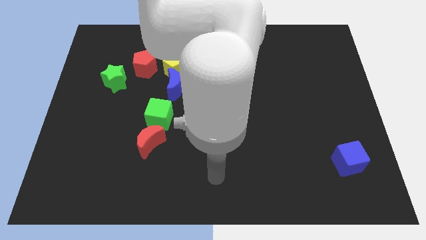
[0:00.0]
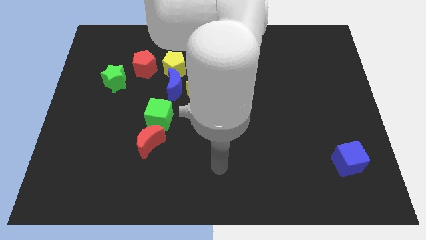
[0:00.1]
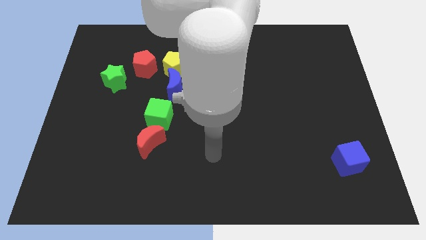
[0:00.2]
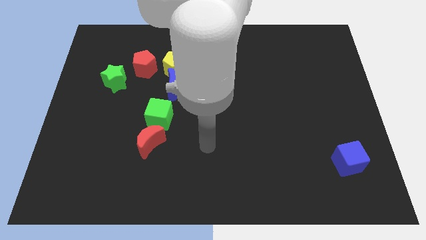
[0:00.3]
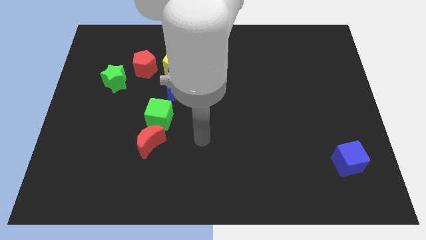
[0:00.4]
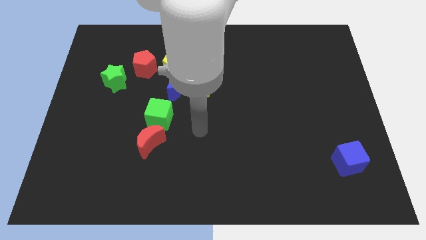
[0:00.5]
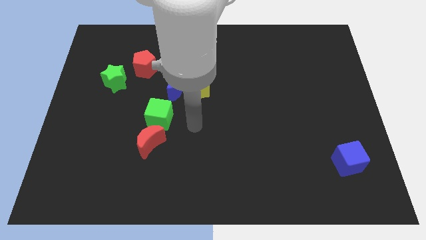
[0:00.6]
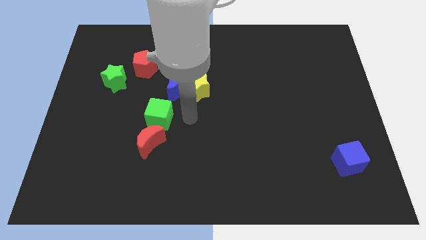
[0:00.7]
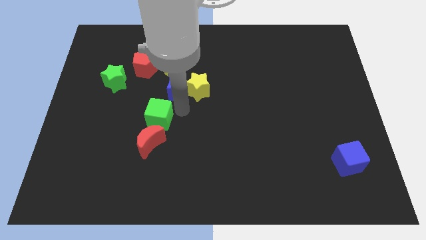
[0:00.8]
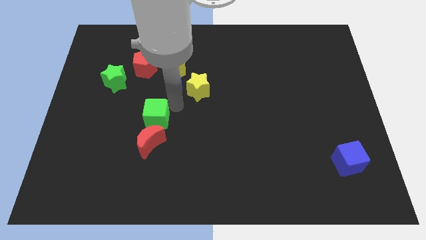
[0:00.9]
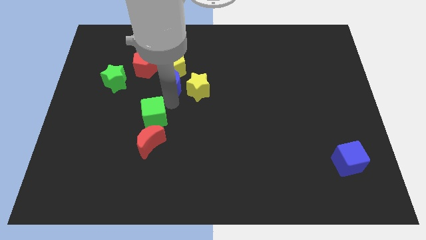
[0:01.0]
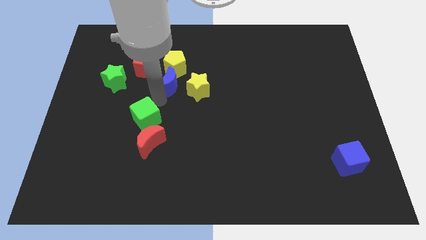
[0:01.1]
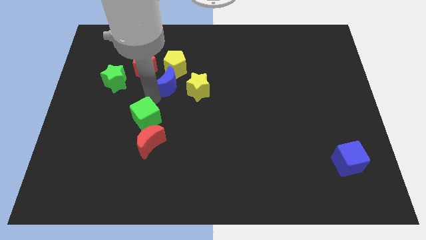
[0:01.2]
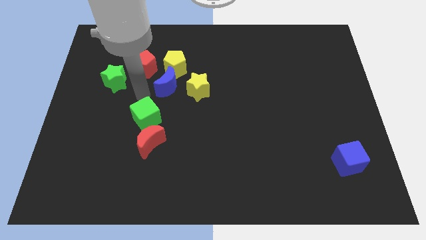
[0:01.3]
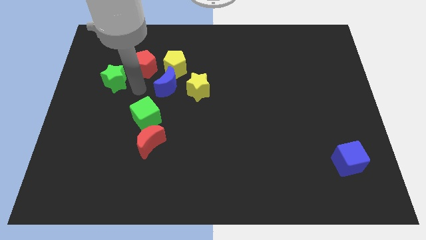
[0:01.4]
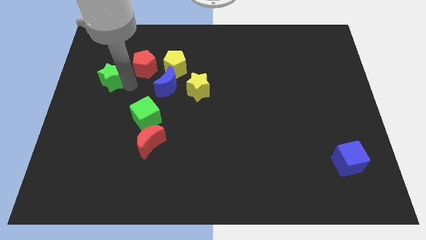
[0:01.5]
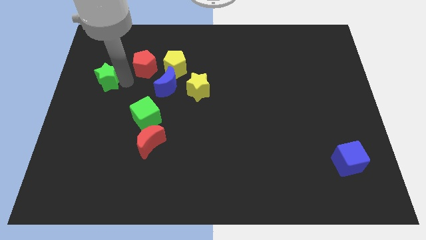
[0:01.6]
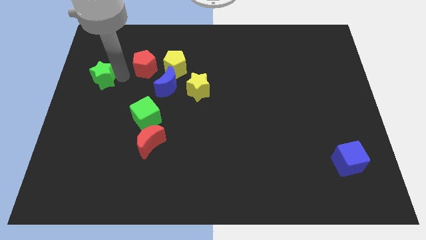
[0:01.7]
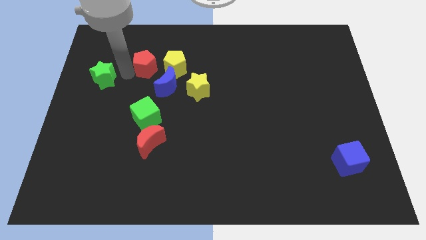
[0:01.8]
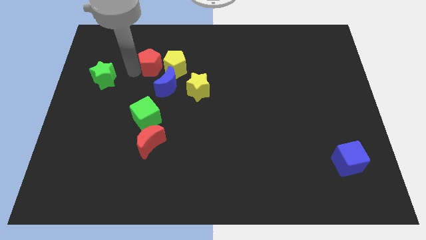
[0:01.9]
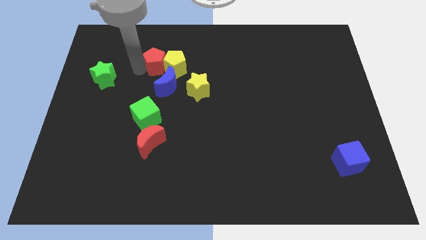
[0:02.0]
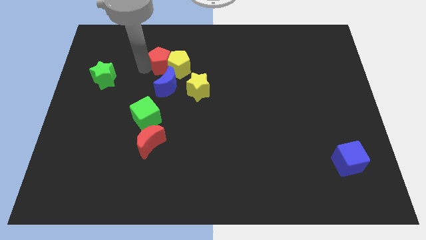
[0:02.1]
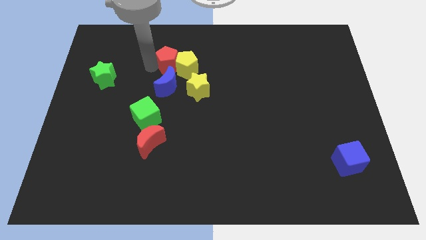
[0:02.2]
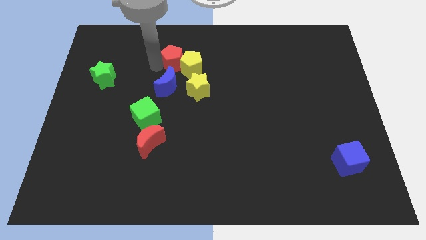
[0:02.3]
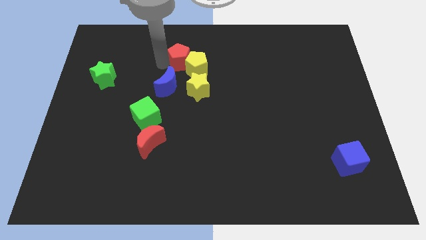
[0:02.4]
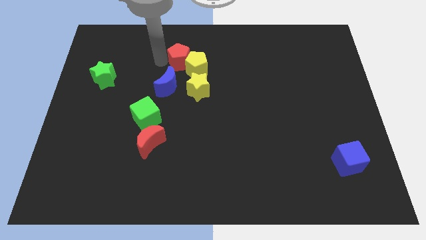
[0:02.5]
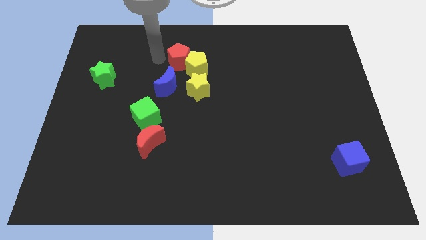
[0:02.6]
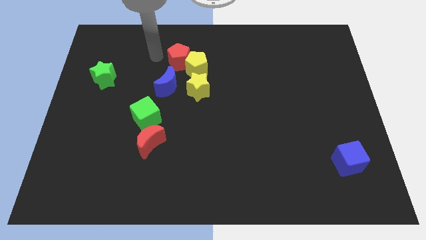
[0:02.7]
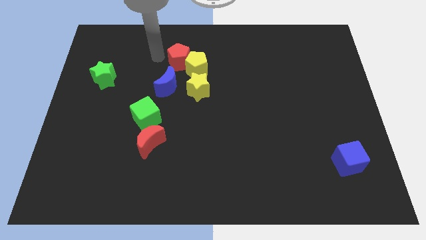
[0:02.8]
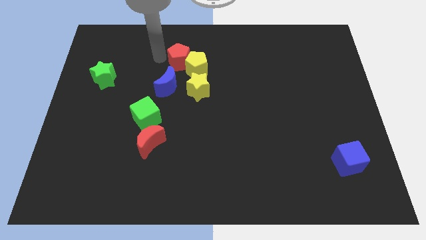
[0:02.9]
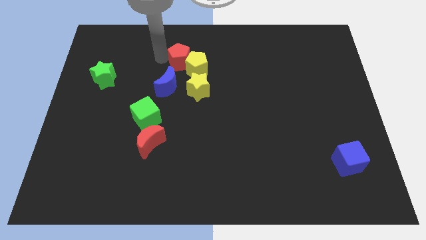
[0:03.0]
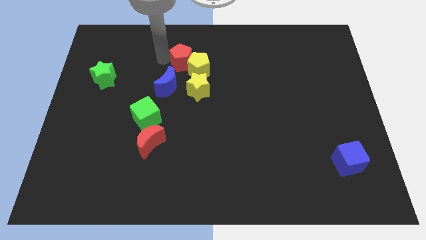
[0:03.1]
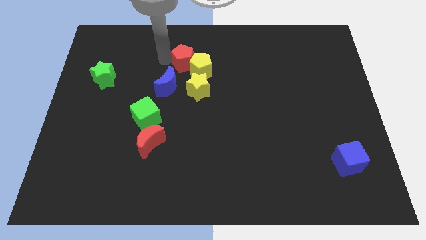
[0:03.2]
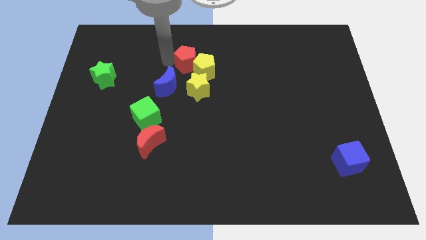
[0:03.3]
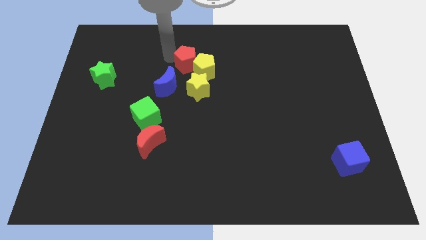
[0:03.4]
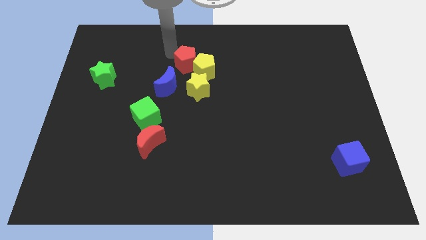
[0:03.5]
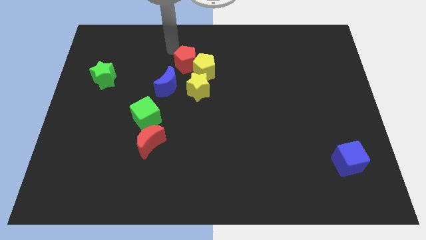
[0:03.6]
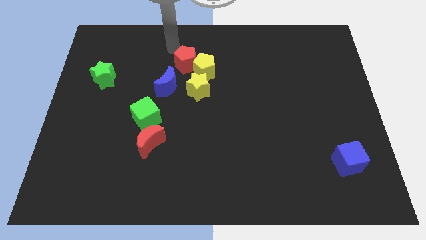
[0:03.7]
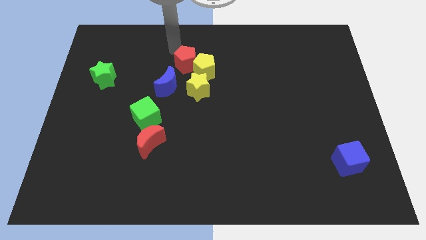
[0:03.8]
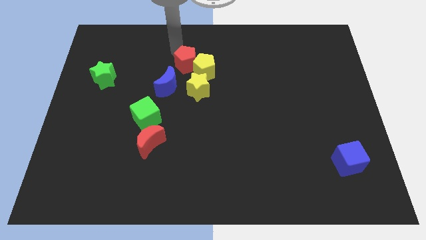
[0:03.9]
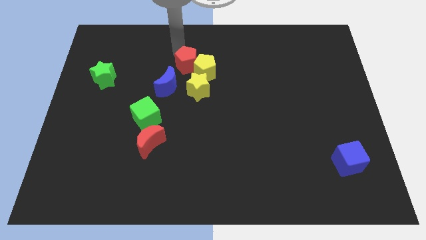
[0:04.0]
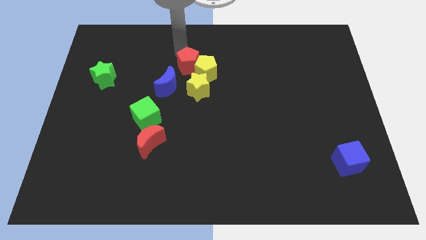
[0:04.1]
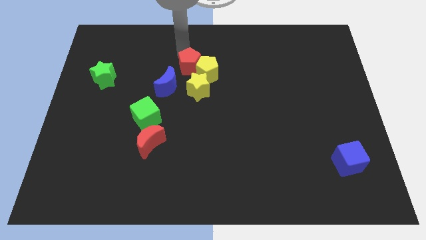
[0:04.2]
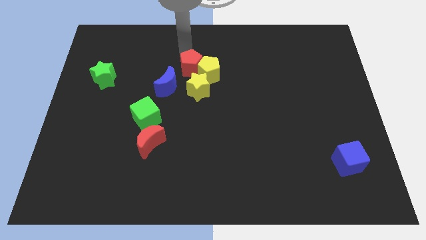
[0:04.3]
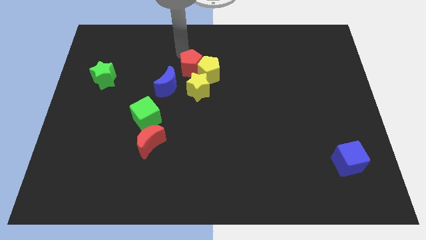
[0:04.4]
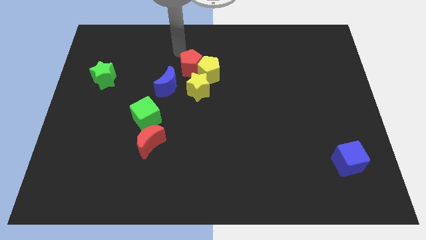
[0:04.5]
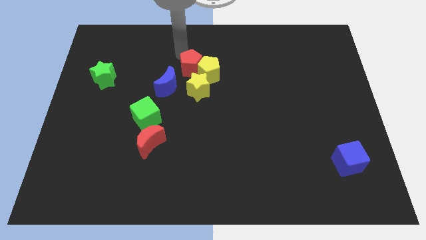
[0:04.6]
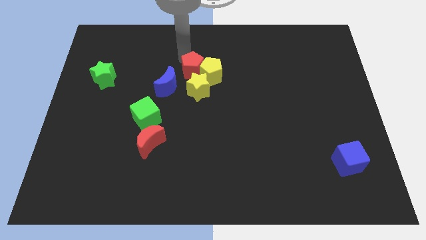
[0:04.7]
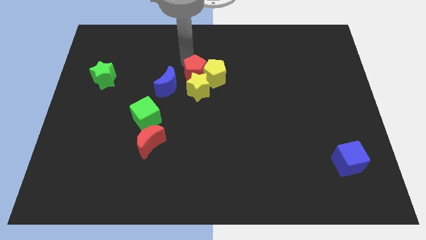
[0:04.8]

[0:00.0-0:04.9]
push the red pentagon close to the yellow star

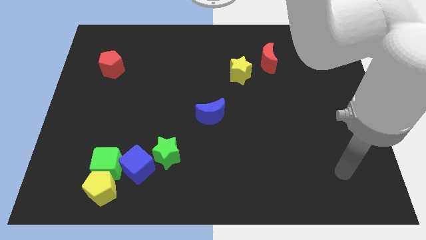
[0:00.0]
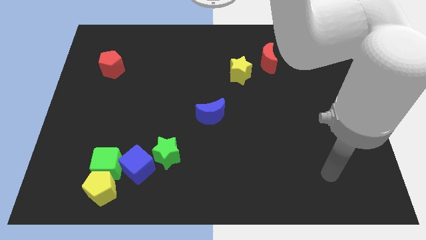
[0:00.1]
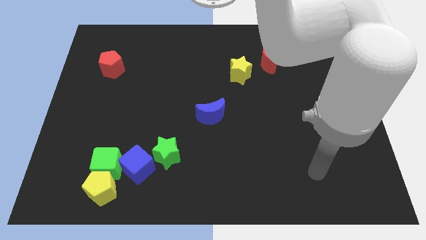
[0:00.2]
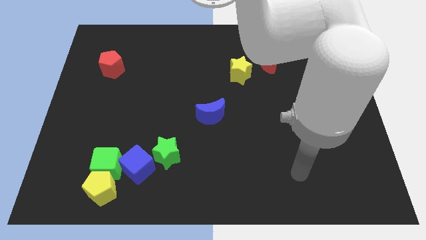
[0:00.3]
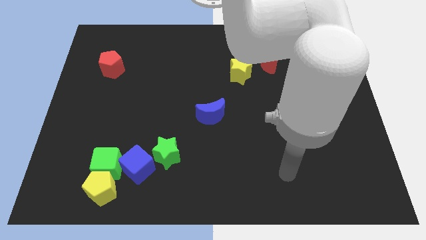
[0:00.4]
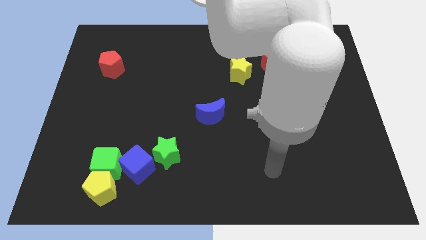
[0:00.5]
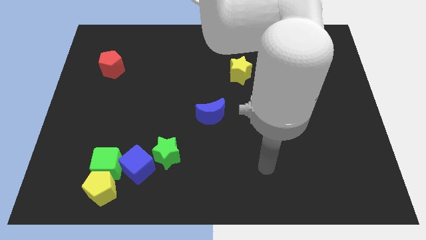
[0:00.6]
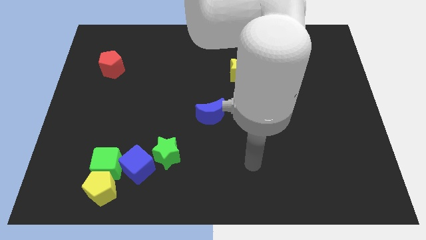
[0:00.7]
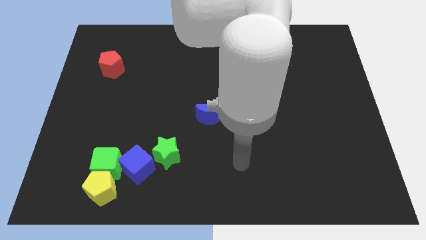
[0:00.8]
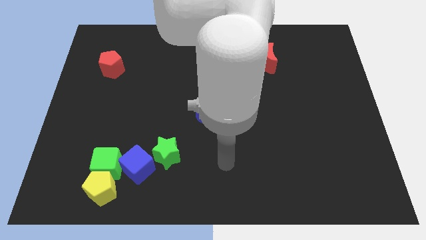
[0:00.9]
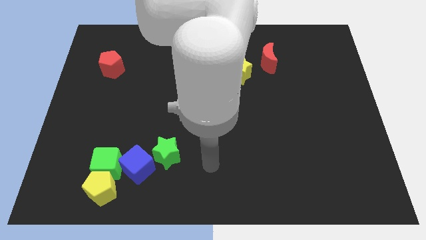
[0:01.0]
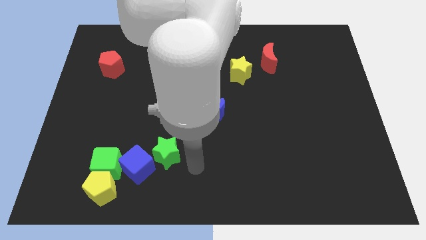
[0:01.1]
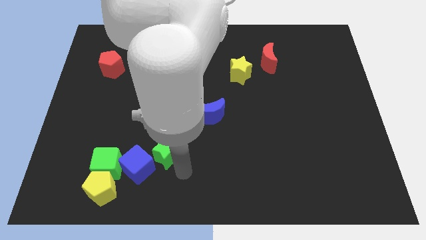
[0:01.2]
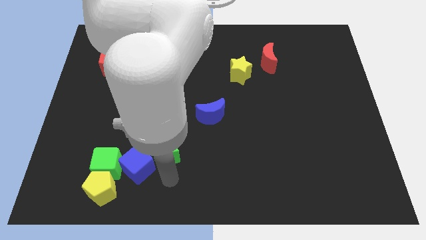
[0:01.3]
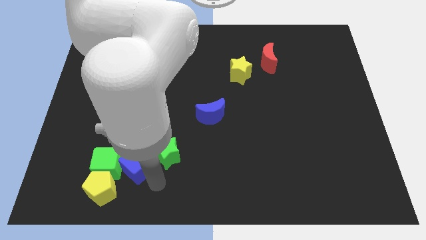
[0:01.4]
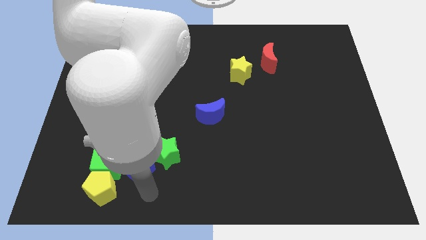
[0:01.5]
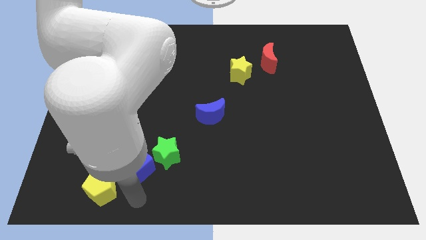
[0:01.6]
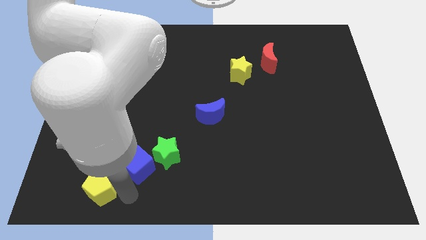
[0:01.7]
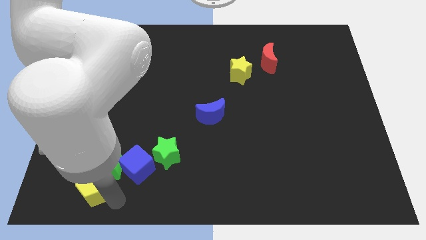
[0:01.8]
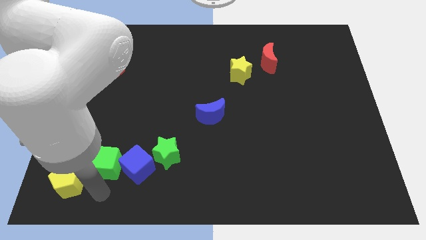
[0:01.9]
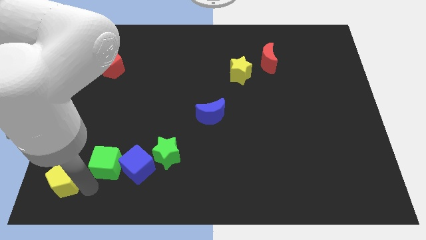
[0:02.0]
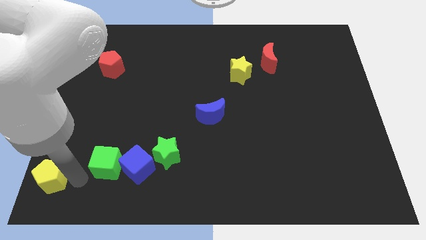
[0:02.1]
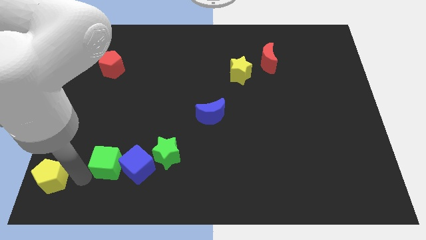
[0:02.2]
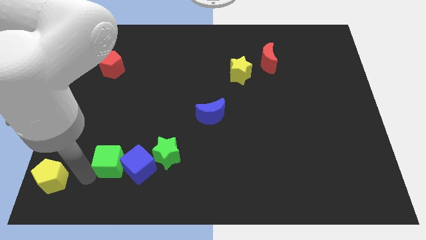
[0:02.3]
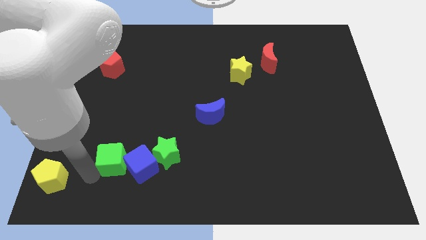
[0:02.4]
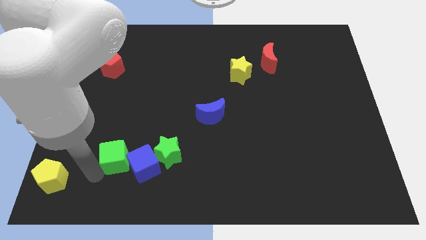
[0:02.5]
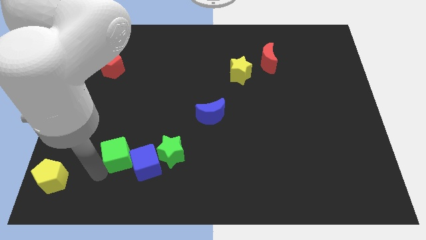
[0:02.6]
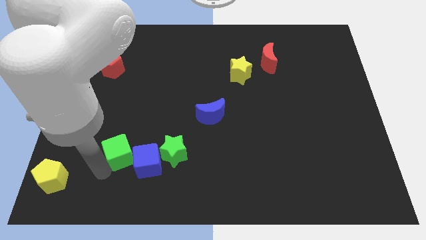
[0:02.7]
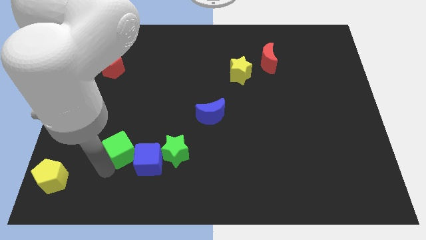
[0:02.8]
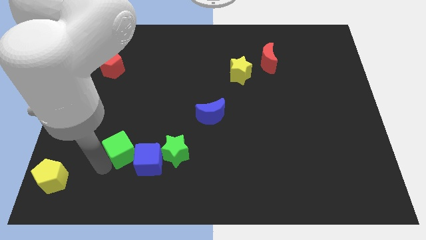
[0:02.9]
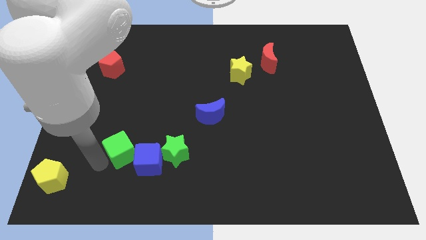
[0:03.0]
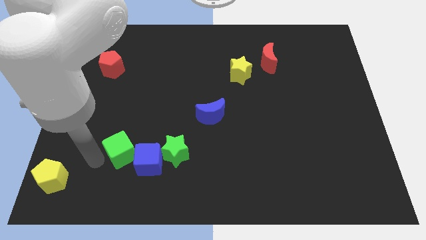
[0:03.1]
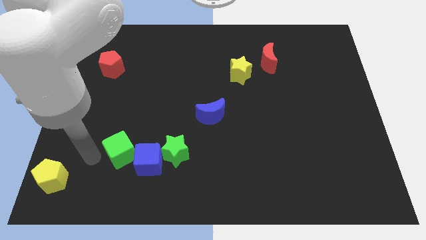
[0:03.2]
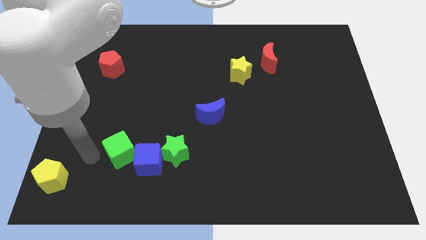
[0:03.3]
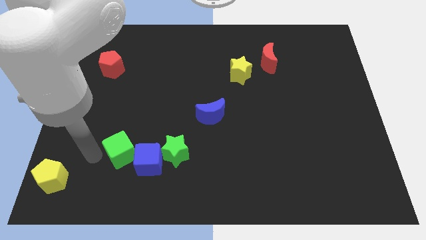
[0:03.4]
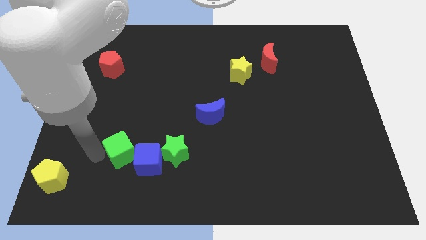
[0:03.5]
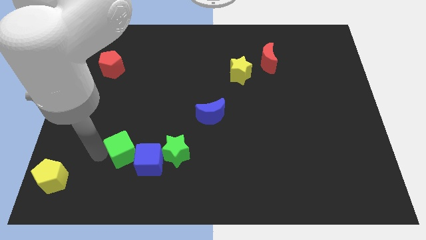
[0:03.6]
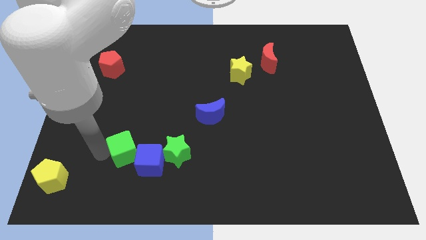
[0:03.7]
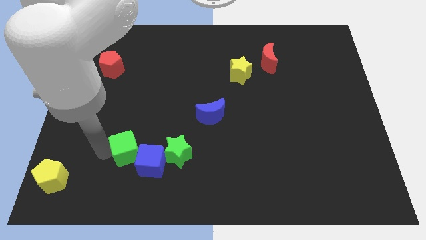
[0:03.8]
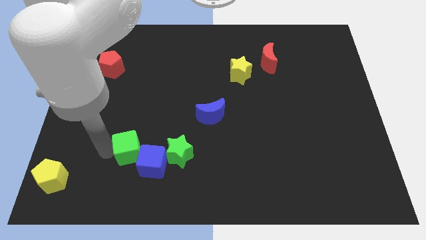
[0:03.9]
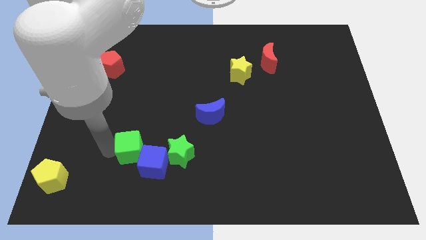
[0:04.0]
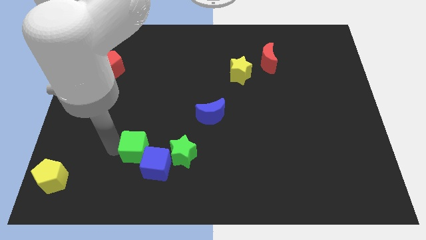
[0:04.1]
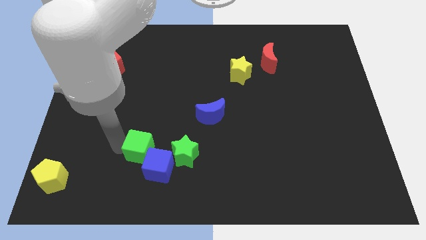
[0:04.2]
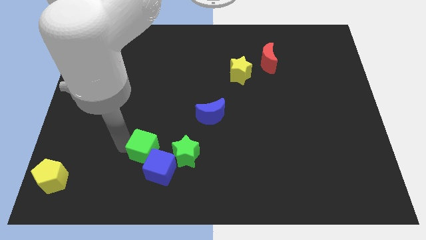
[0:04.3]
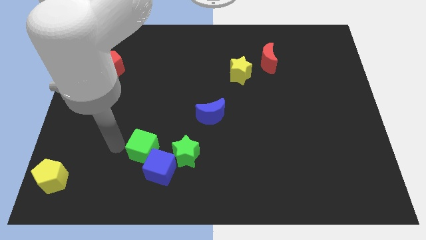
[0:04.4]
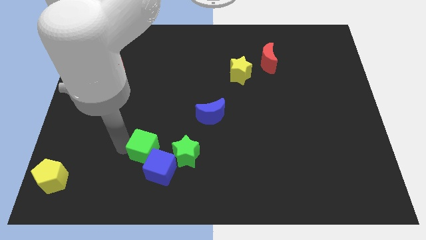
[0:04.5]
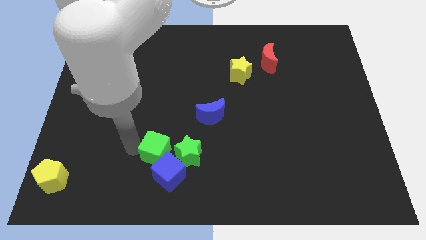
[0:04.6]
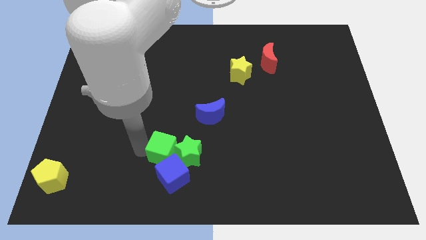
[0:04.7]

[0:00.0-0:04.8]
push the green cube towards the green star
